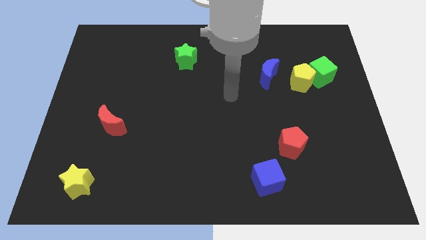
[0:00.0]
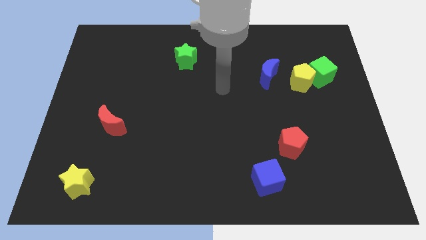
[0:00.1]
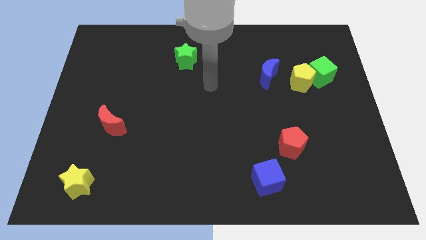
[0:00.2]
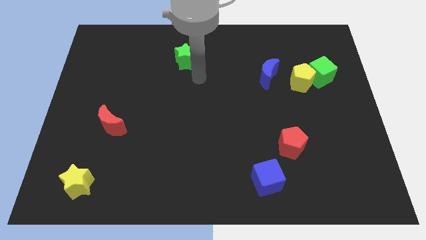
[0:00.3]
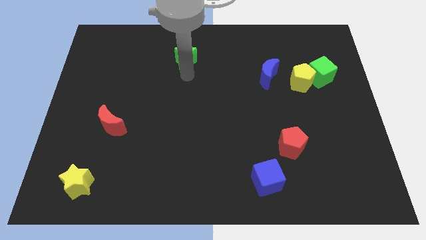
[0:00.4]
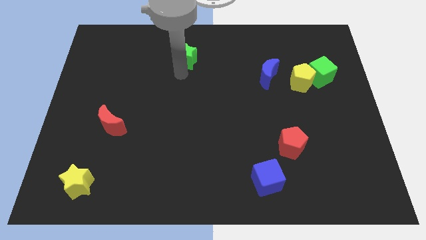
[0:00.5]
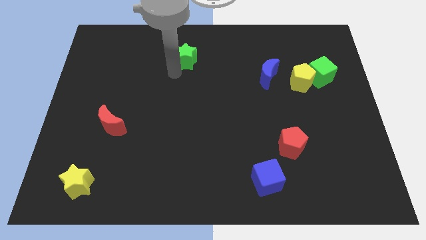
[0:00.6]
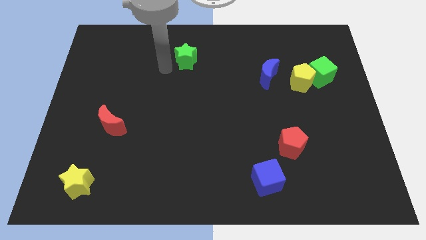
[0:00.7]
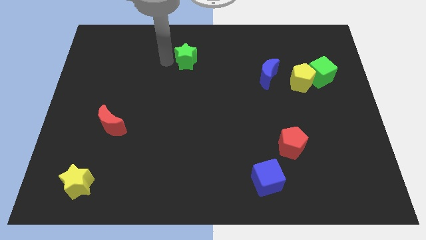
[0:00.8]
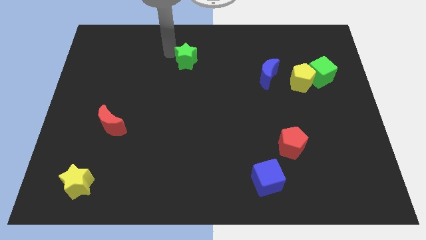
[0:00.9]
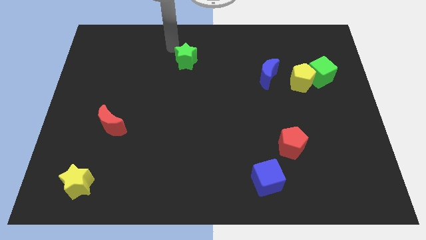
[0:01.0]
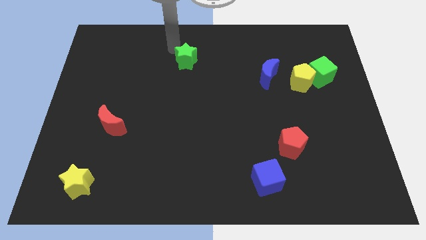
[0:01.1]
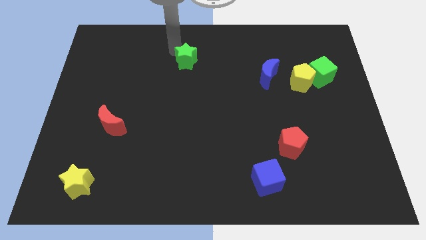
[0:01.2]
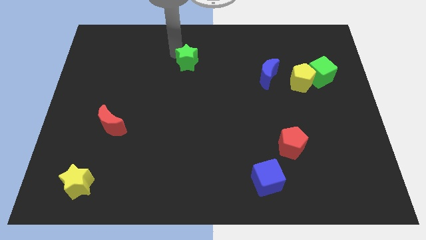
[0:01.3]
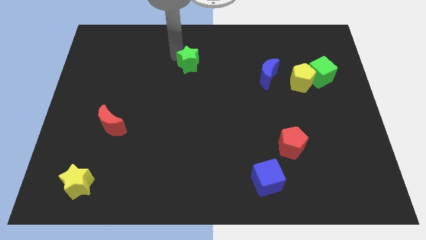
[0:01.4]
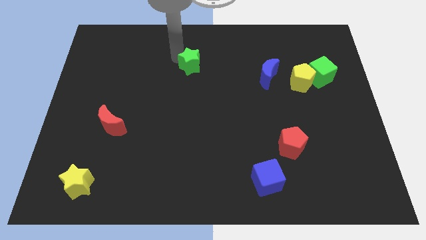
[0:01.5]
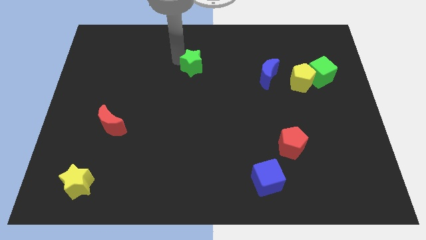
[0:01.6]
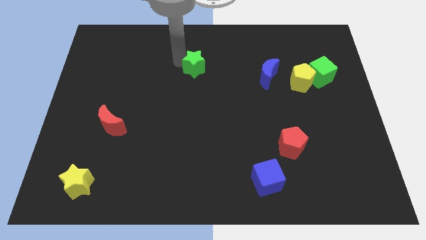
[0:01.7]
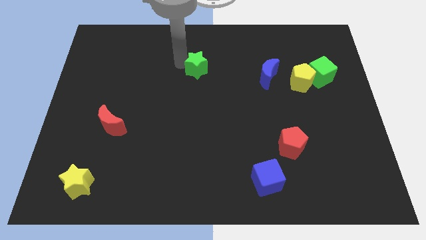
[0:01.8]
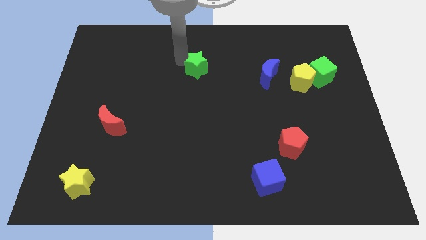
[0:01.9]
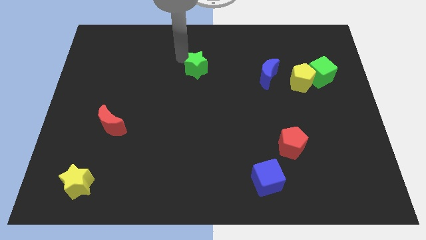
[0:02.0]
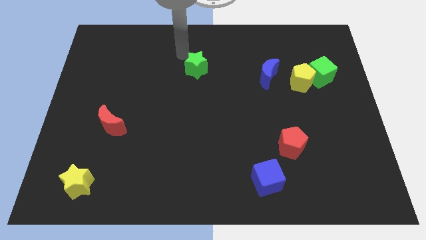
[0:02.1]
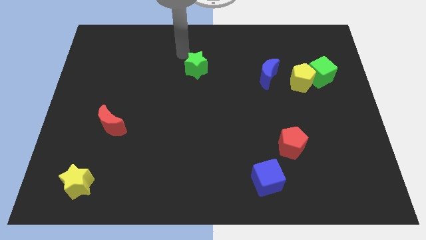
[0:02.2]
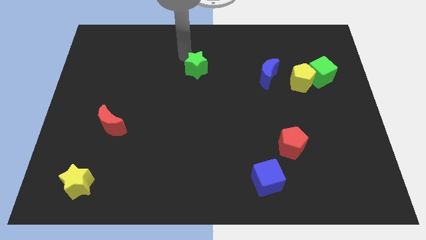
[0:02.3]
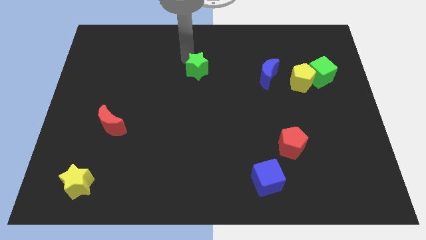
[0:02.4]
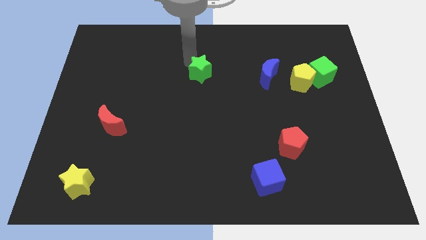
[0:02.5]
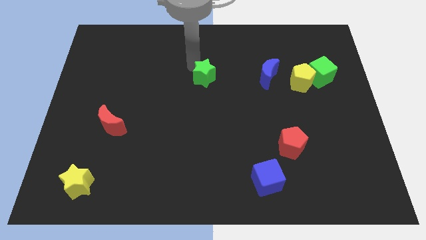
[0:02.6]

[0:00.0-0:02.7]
slide the green star a little downwards and then to the right

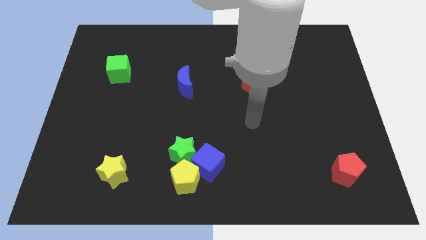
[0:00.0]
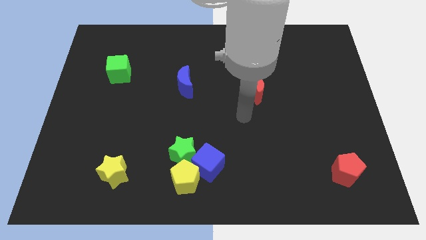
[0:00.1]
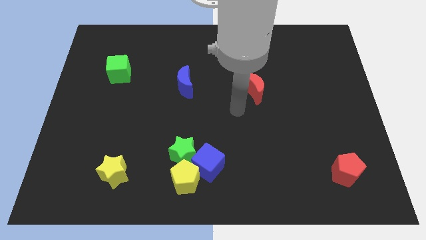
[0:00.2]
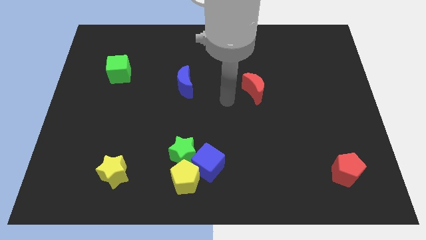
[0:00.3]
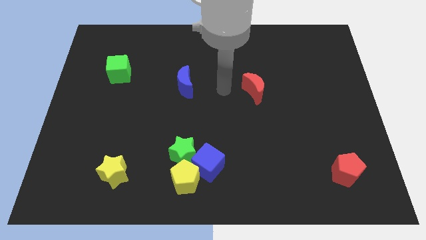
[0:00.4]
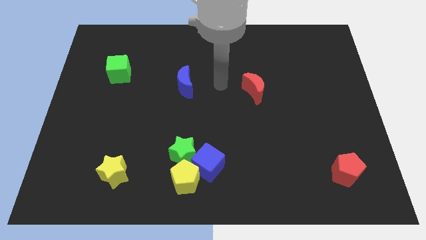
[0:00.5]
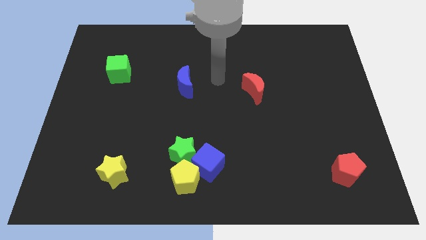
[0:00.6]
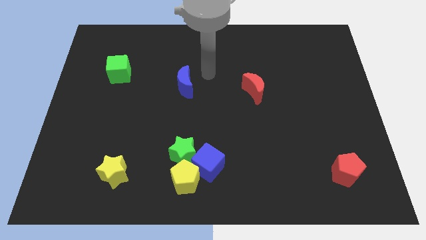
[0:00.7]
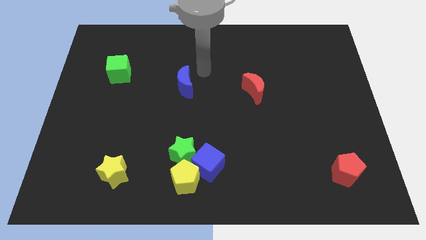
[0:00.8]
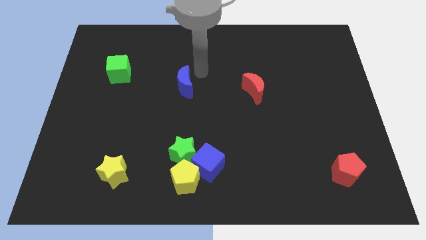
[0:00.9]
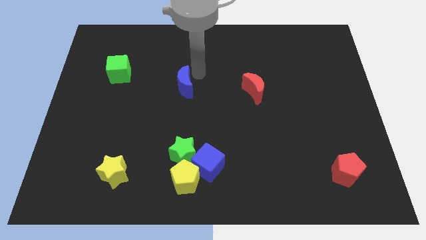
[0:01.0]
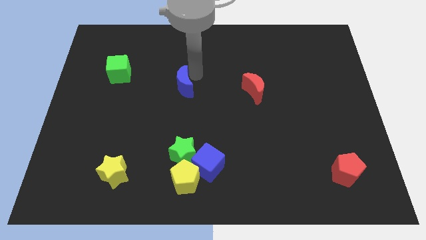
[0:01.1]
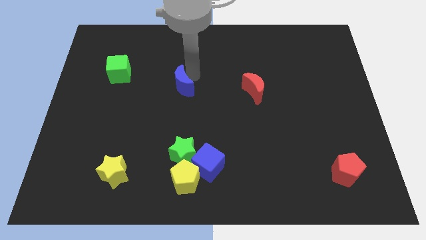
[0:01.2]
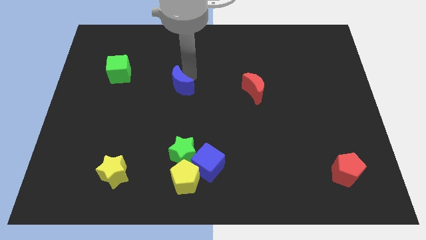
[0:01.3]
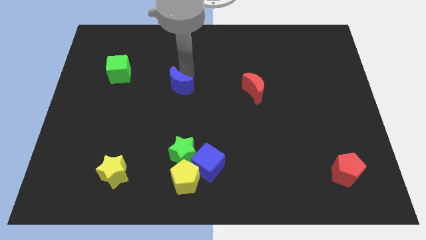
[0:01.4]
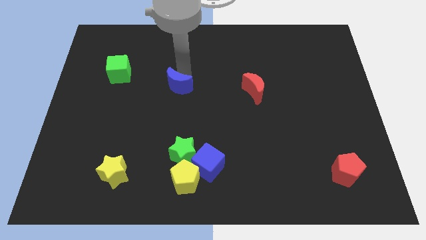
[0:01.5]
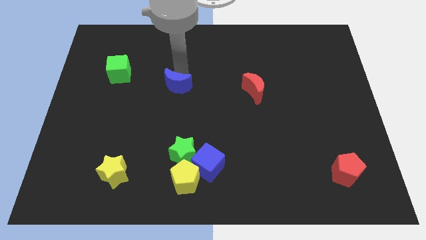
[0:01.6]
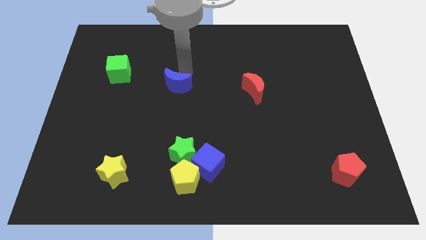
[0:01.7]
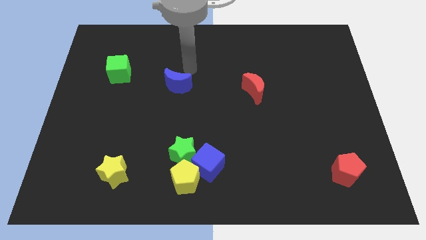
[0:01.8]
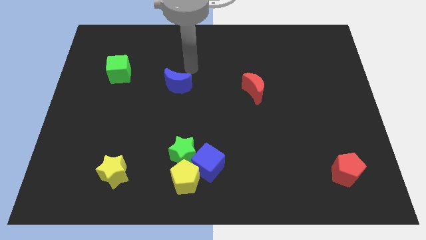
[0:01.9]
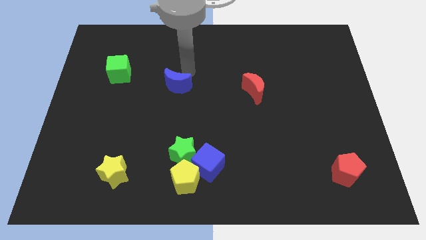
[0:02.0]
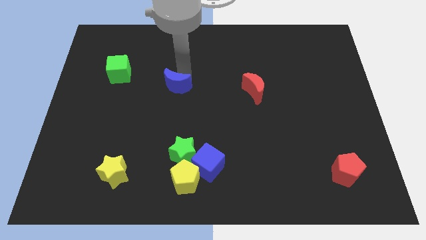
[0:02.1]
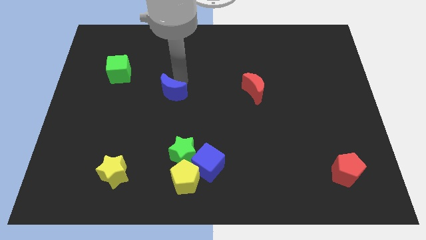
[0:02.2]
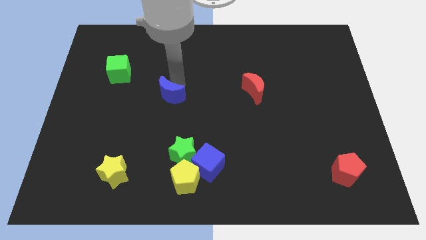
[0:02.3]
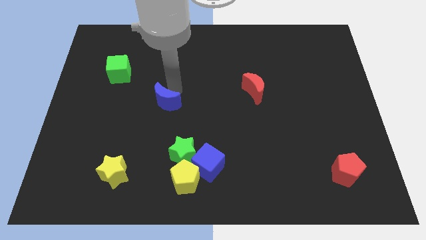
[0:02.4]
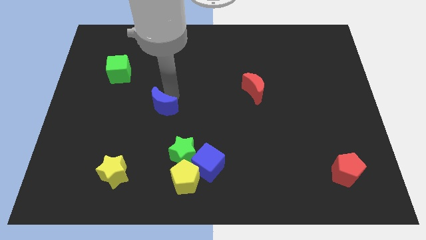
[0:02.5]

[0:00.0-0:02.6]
slide the blue moon a little downwards and then left

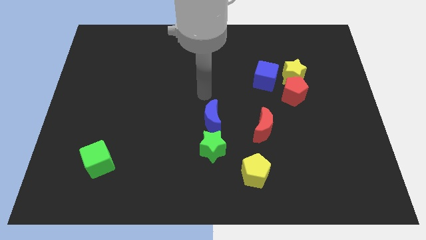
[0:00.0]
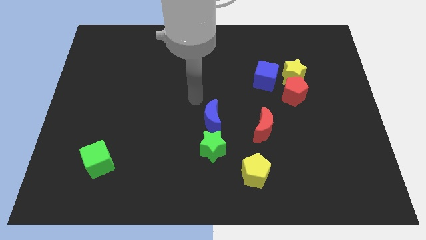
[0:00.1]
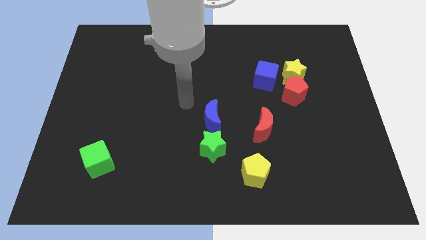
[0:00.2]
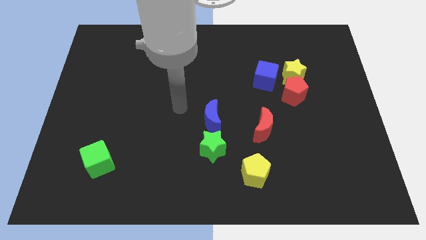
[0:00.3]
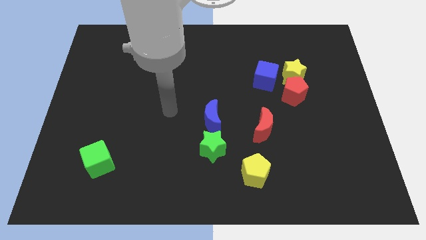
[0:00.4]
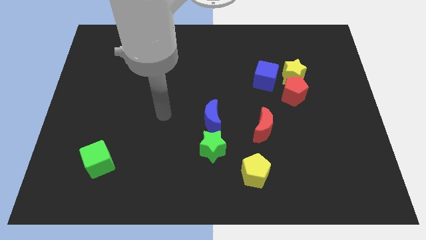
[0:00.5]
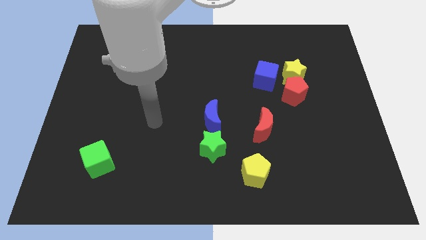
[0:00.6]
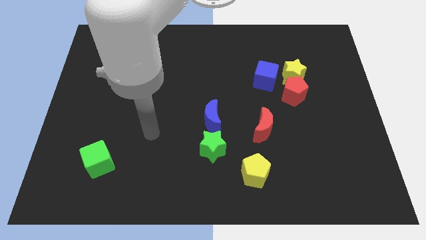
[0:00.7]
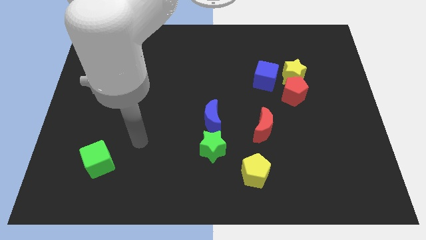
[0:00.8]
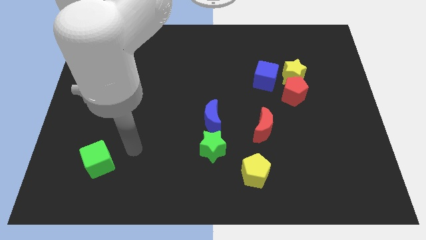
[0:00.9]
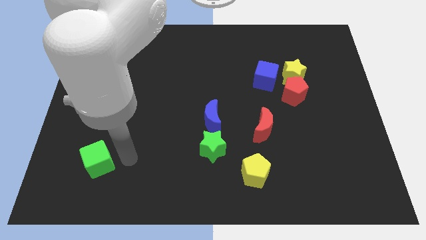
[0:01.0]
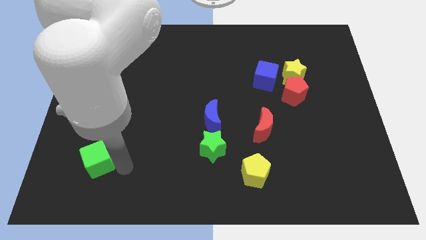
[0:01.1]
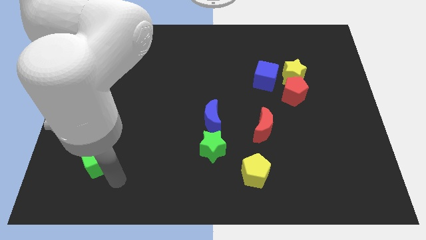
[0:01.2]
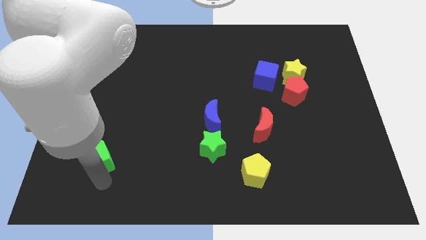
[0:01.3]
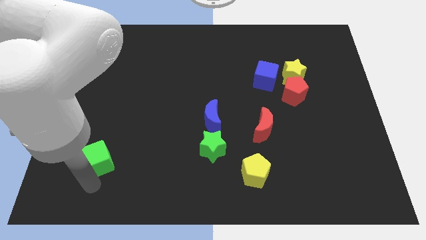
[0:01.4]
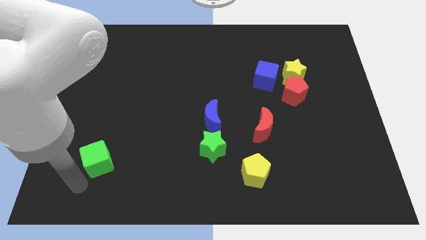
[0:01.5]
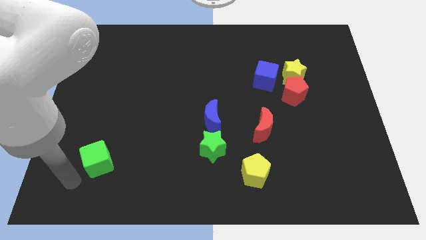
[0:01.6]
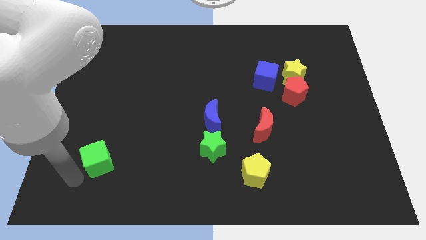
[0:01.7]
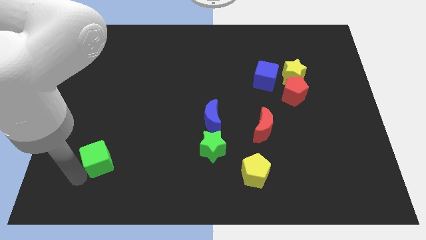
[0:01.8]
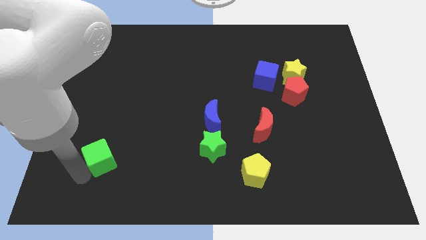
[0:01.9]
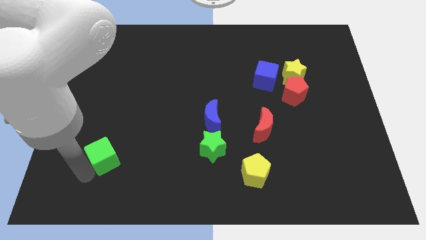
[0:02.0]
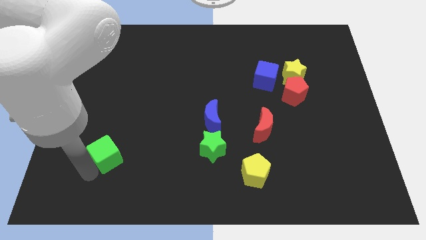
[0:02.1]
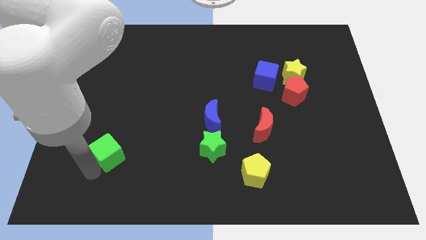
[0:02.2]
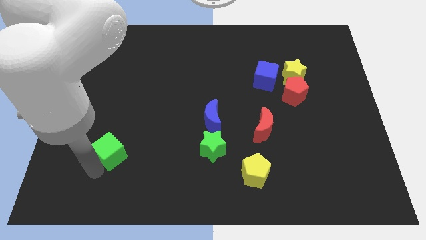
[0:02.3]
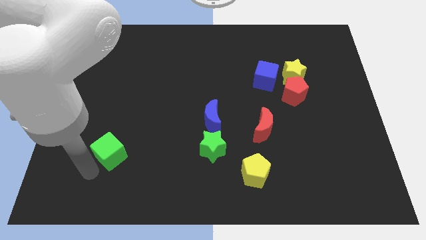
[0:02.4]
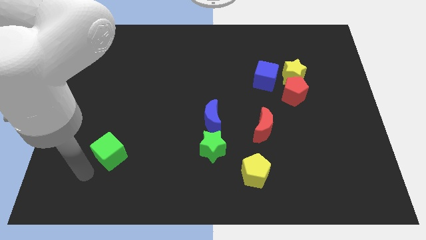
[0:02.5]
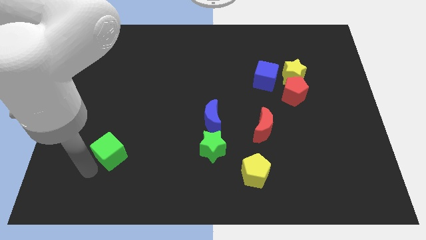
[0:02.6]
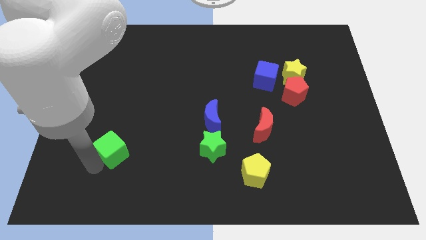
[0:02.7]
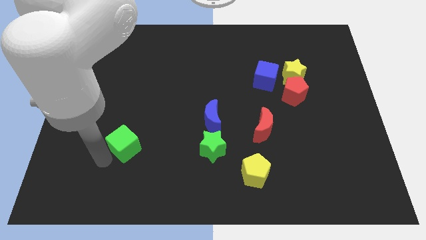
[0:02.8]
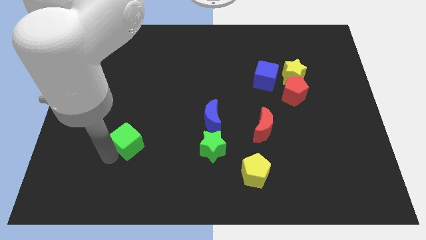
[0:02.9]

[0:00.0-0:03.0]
move the green cube upwards and to the right a bit
